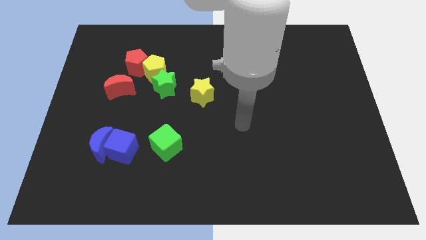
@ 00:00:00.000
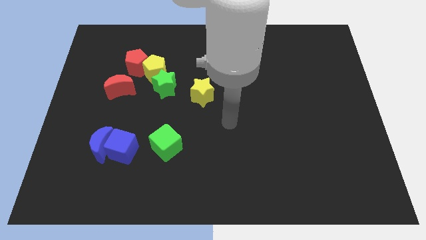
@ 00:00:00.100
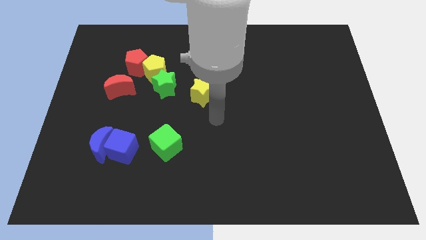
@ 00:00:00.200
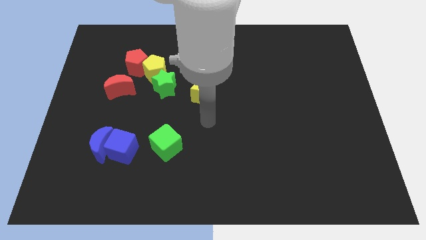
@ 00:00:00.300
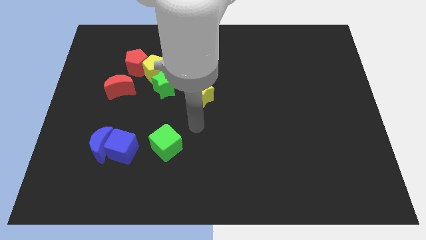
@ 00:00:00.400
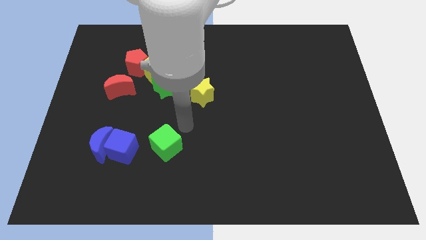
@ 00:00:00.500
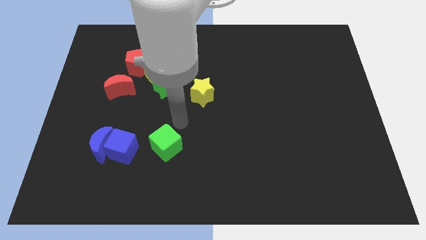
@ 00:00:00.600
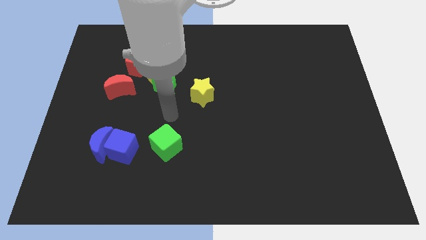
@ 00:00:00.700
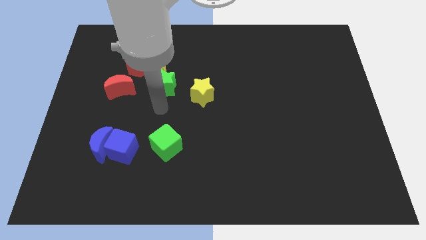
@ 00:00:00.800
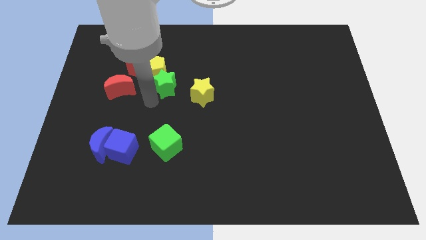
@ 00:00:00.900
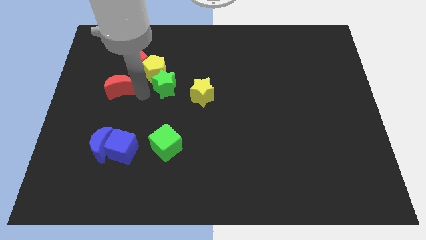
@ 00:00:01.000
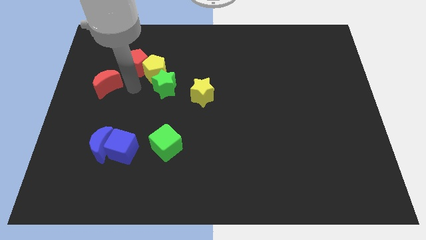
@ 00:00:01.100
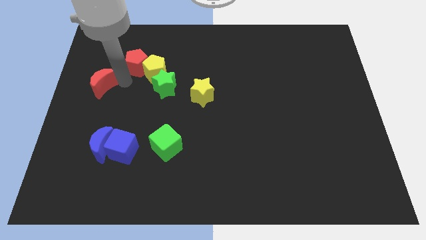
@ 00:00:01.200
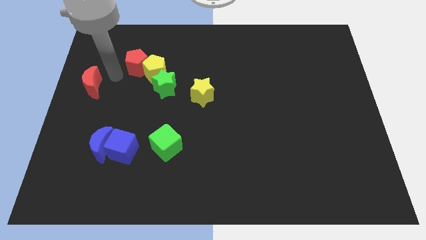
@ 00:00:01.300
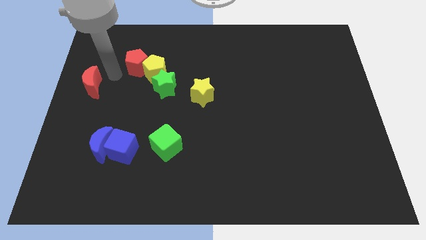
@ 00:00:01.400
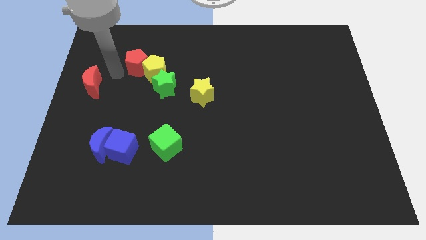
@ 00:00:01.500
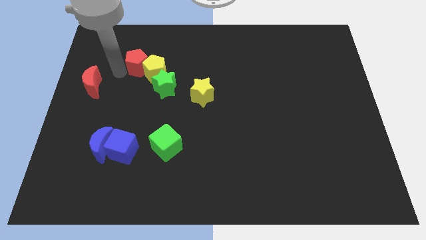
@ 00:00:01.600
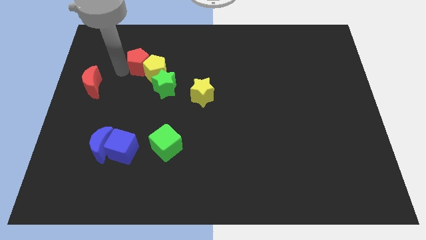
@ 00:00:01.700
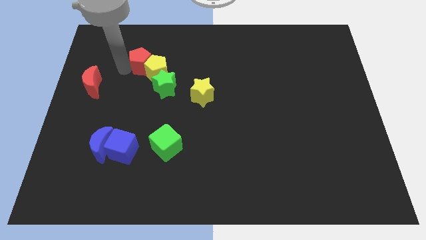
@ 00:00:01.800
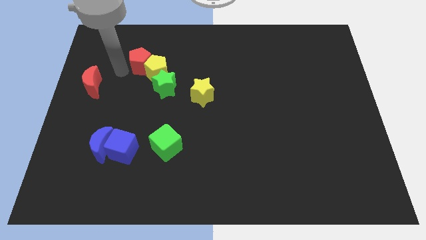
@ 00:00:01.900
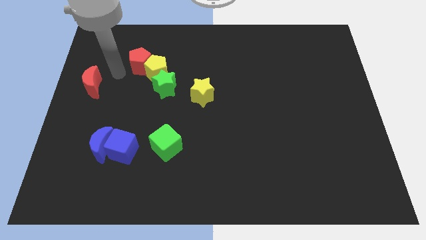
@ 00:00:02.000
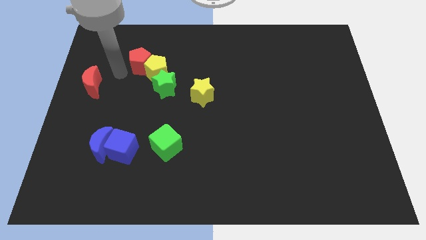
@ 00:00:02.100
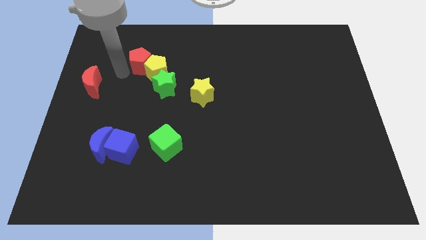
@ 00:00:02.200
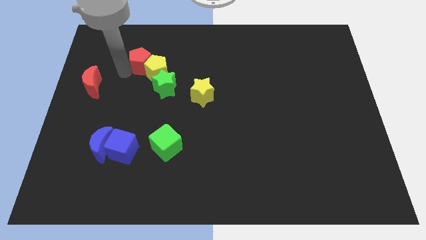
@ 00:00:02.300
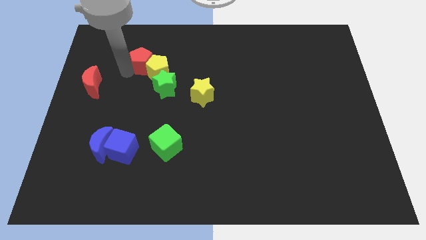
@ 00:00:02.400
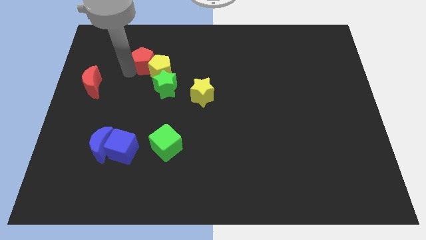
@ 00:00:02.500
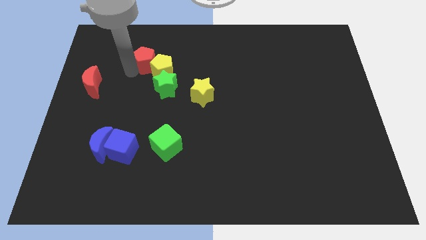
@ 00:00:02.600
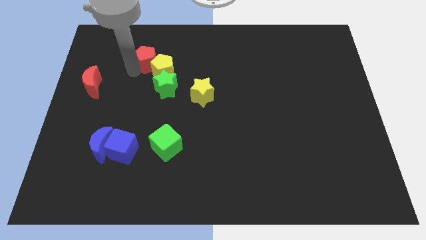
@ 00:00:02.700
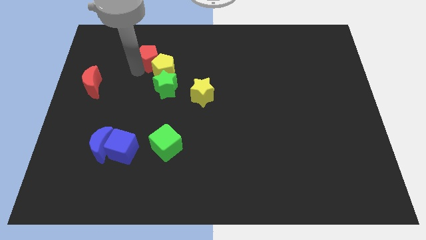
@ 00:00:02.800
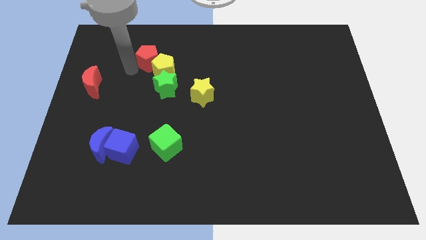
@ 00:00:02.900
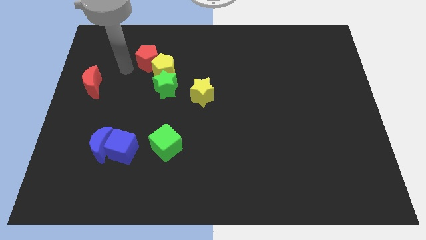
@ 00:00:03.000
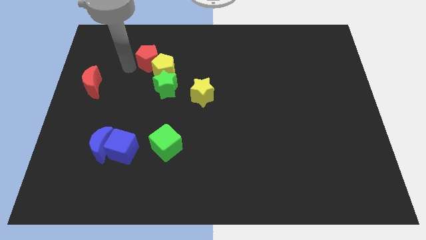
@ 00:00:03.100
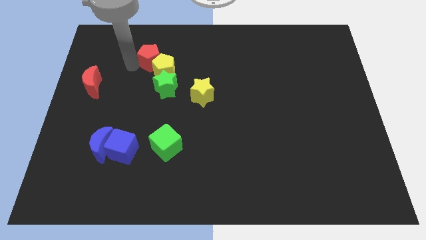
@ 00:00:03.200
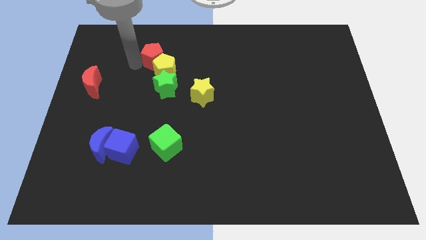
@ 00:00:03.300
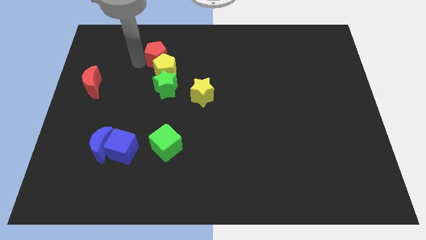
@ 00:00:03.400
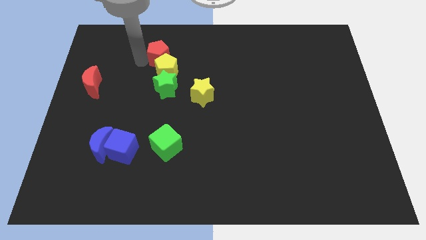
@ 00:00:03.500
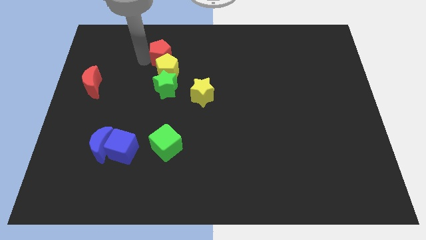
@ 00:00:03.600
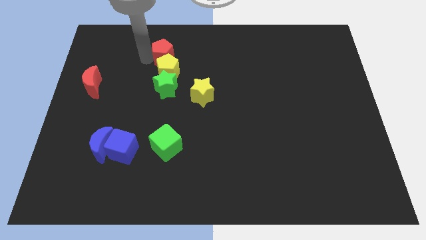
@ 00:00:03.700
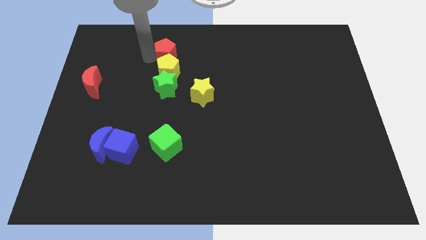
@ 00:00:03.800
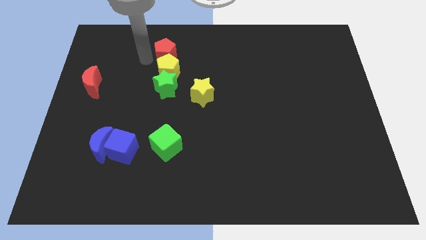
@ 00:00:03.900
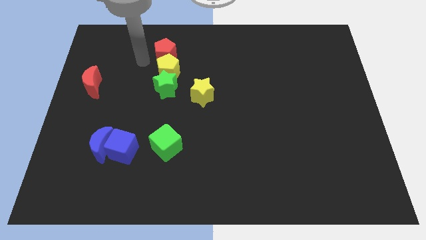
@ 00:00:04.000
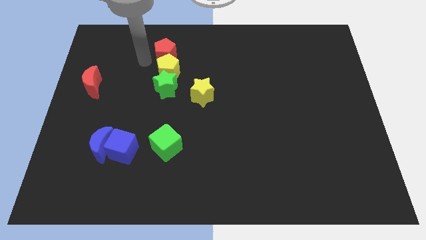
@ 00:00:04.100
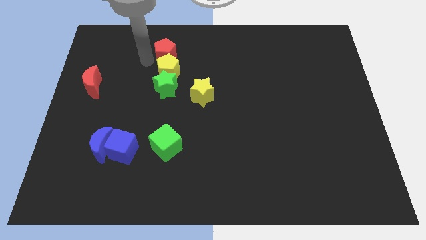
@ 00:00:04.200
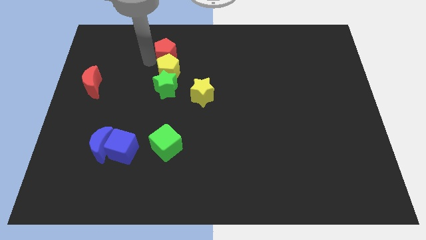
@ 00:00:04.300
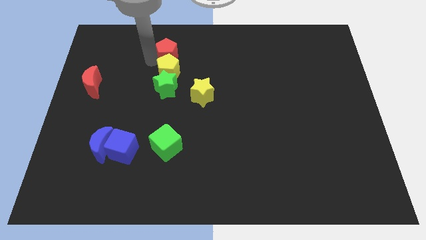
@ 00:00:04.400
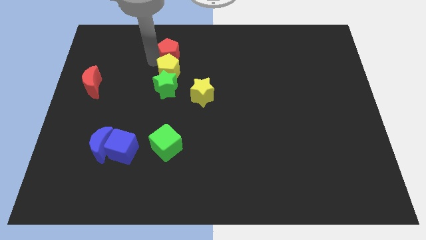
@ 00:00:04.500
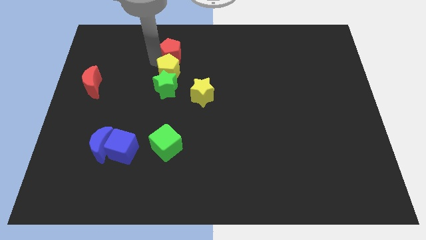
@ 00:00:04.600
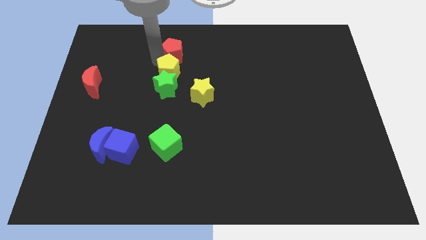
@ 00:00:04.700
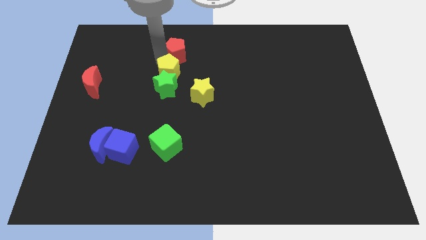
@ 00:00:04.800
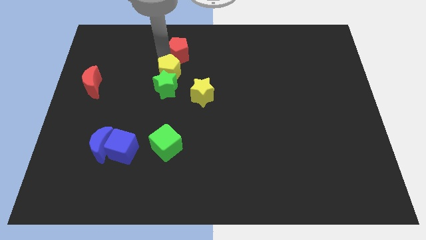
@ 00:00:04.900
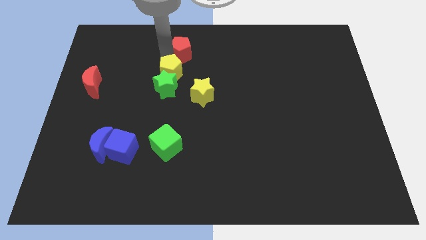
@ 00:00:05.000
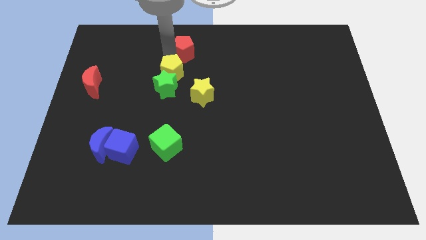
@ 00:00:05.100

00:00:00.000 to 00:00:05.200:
put the red pentagon to the top side
